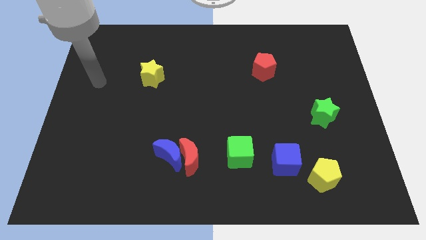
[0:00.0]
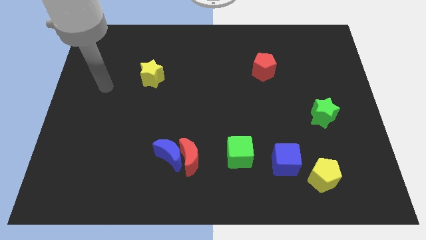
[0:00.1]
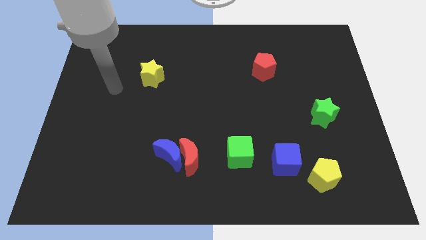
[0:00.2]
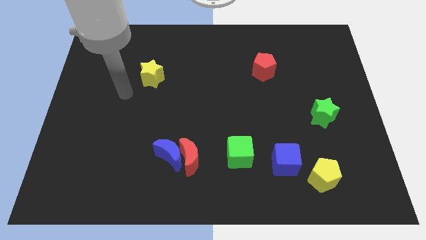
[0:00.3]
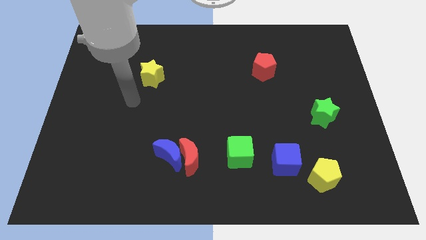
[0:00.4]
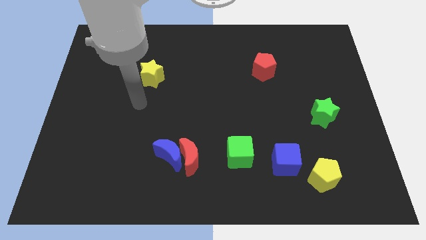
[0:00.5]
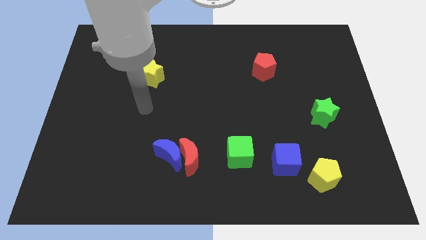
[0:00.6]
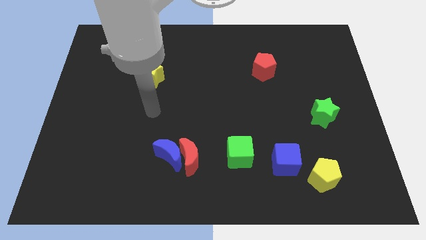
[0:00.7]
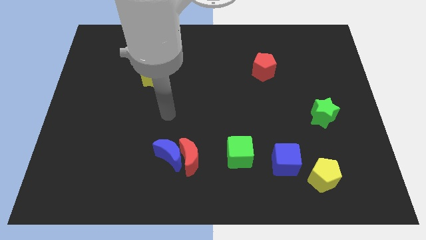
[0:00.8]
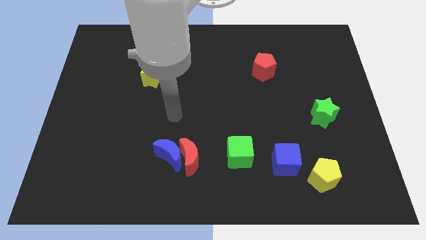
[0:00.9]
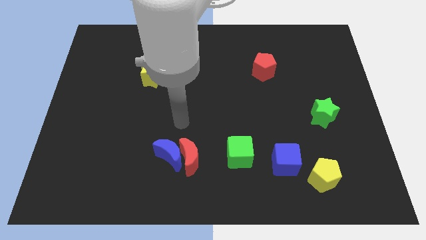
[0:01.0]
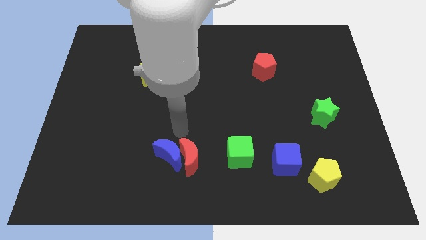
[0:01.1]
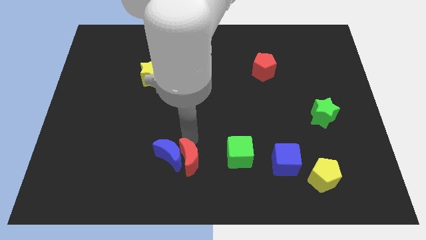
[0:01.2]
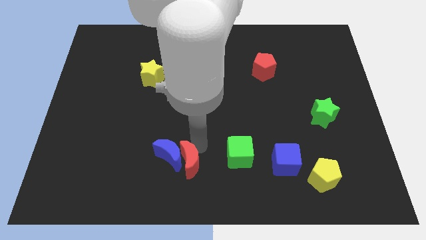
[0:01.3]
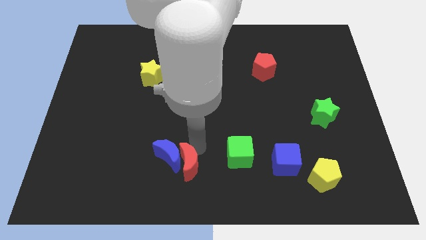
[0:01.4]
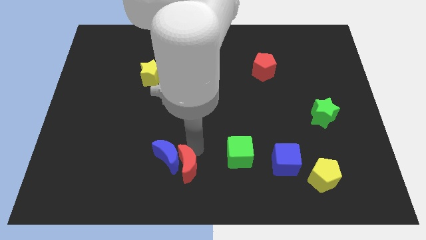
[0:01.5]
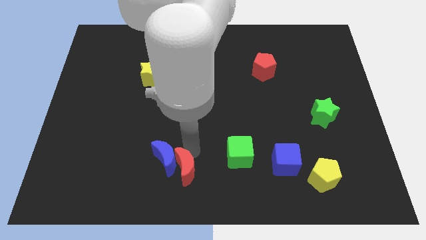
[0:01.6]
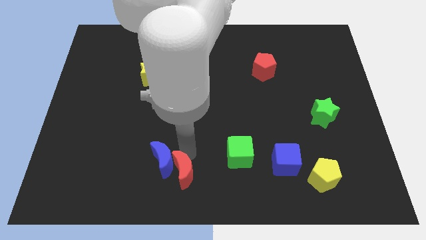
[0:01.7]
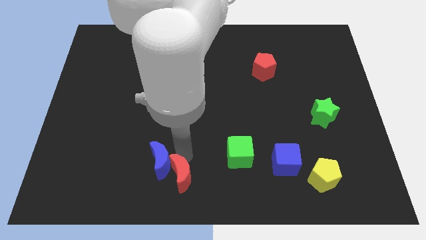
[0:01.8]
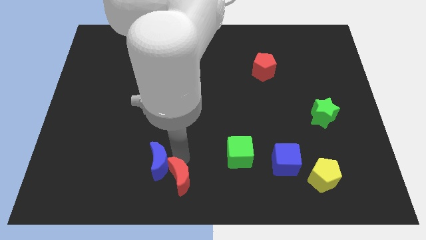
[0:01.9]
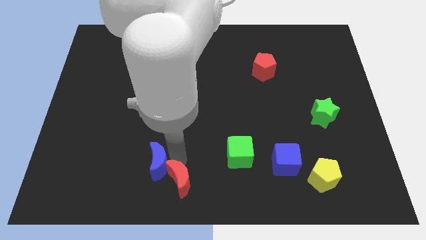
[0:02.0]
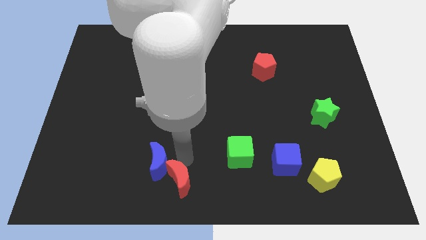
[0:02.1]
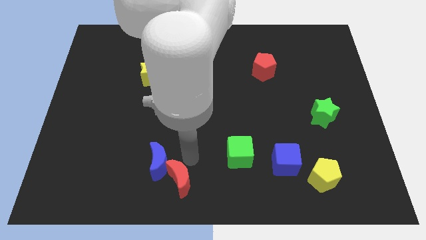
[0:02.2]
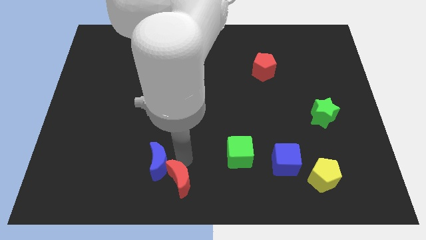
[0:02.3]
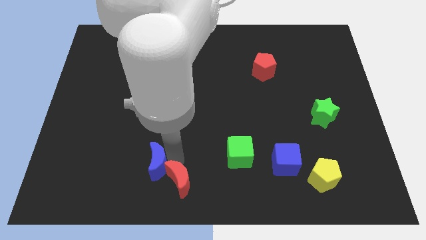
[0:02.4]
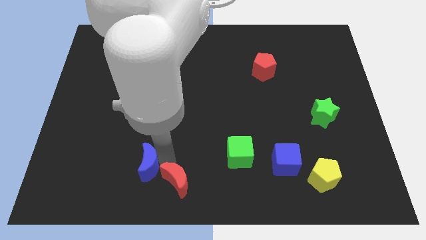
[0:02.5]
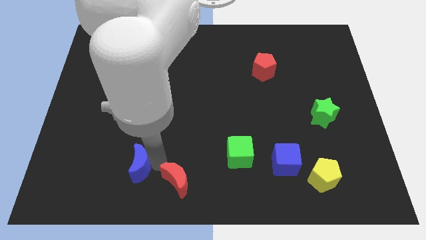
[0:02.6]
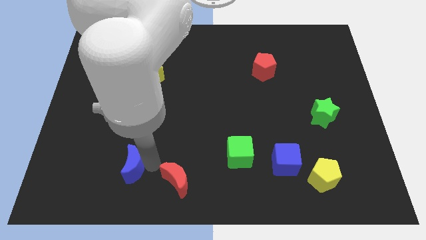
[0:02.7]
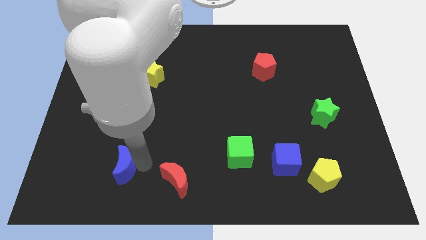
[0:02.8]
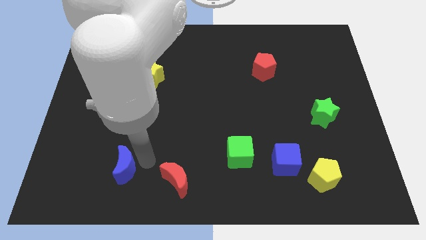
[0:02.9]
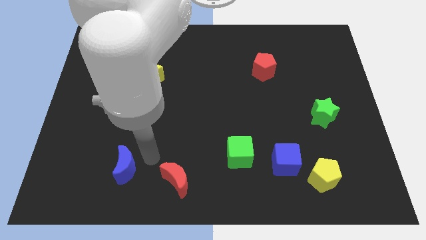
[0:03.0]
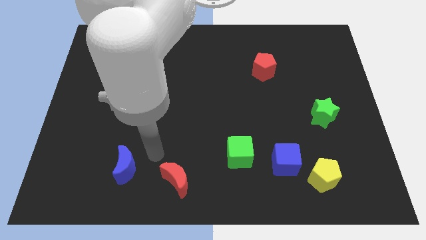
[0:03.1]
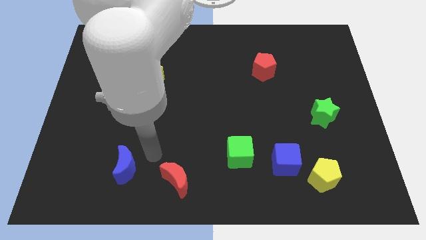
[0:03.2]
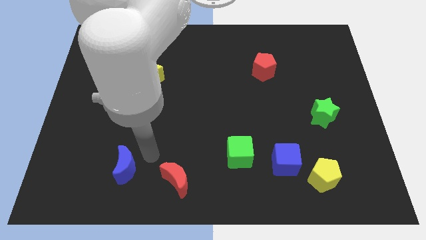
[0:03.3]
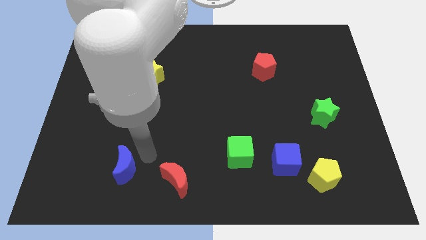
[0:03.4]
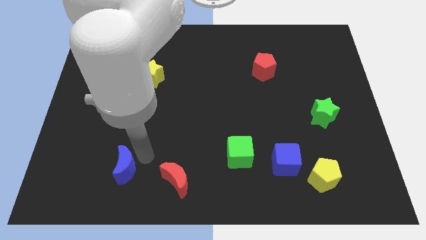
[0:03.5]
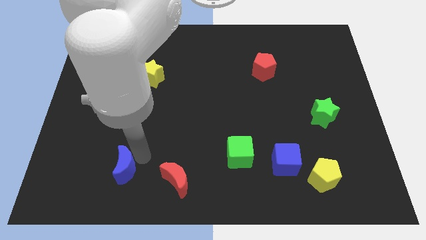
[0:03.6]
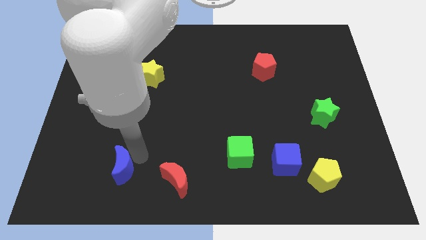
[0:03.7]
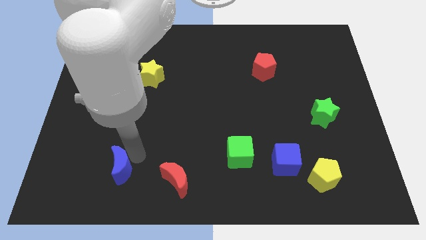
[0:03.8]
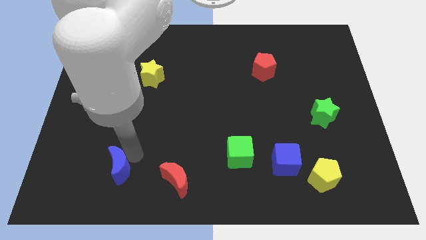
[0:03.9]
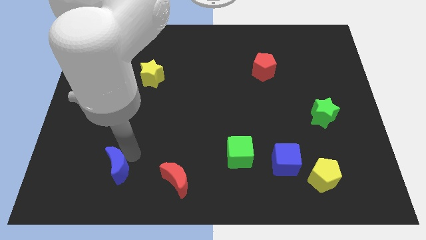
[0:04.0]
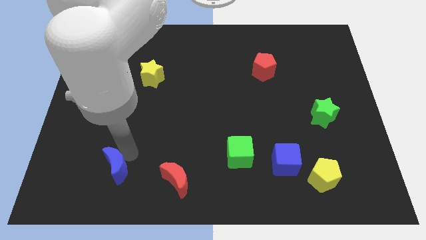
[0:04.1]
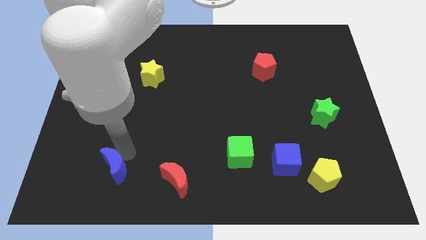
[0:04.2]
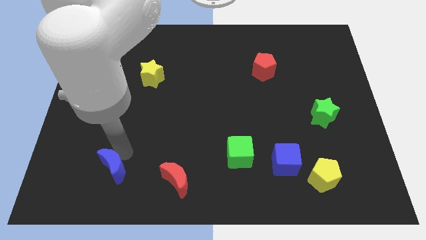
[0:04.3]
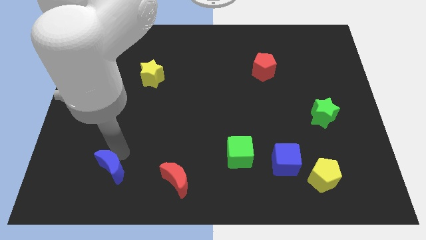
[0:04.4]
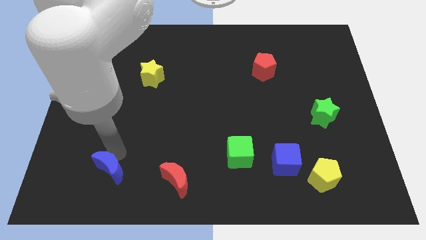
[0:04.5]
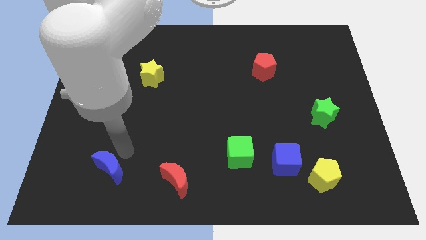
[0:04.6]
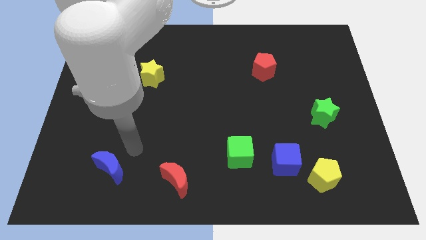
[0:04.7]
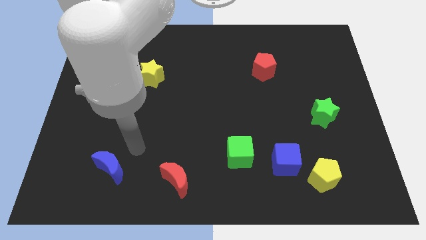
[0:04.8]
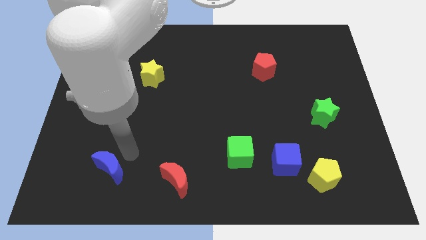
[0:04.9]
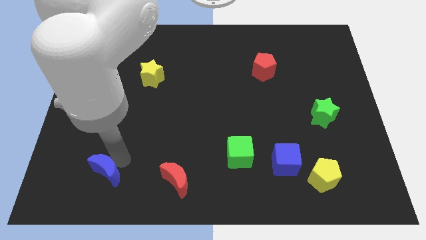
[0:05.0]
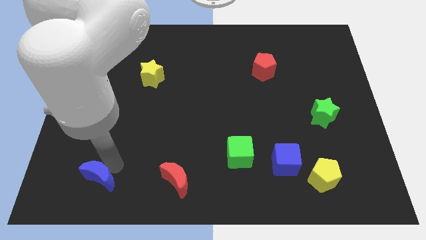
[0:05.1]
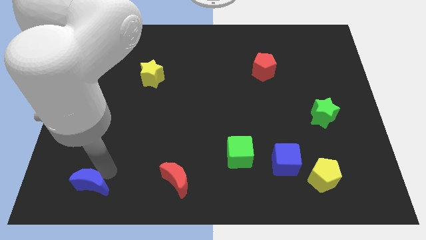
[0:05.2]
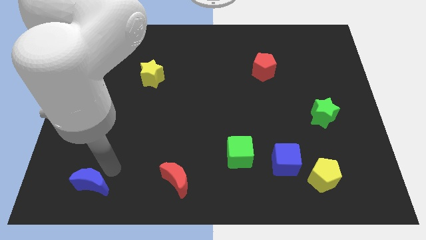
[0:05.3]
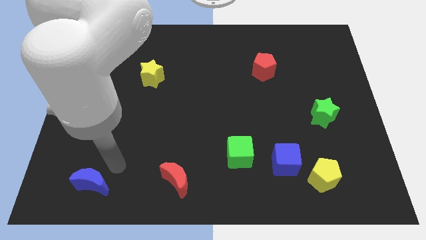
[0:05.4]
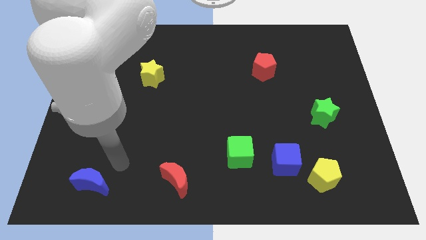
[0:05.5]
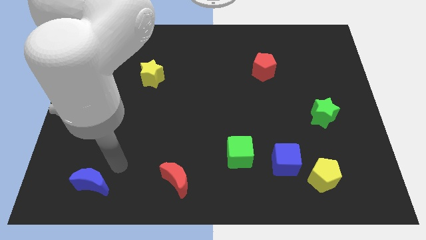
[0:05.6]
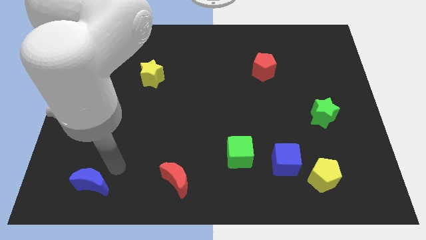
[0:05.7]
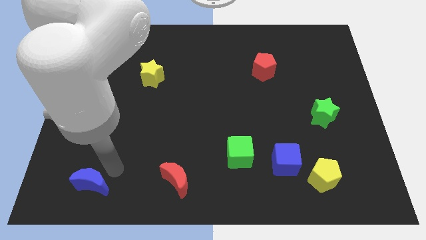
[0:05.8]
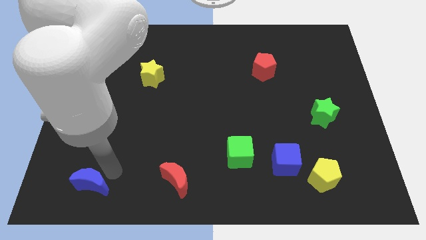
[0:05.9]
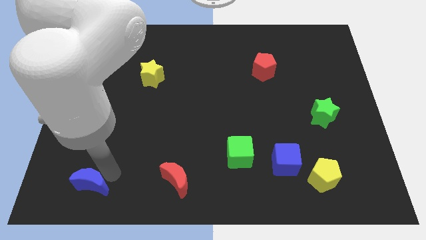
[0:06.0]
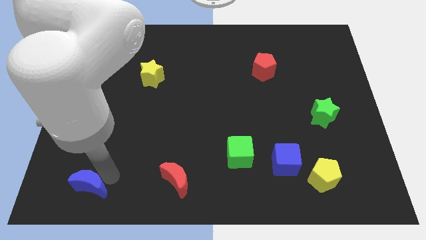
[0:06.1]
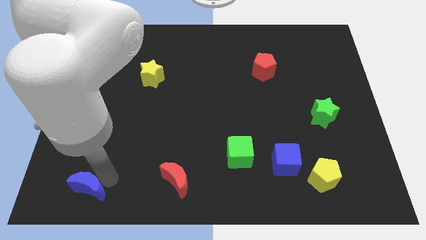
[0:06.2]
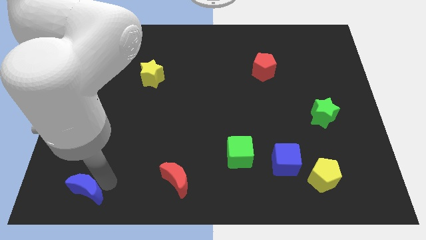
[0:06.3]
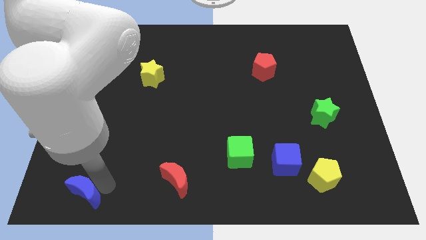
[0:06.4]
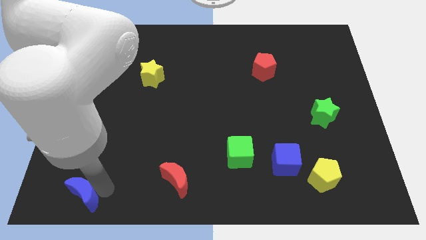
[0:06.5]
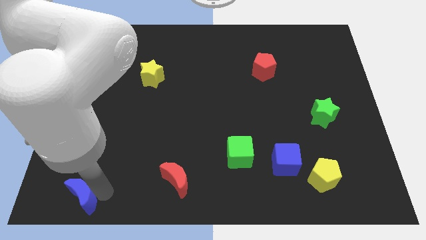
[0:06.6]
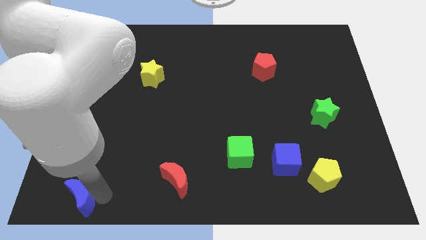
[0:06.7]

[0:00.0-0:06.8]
push the blue moon to the bottom left corner

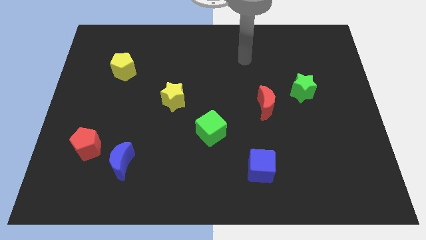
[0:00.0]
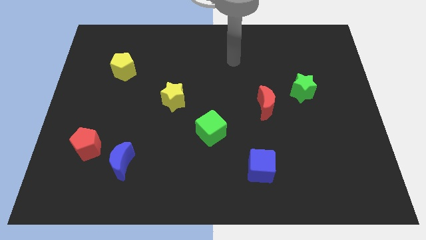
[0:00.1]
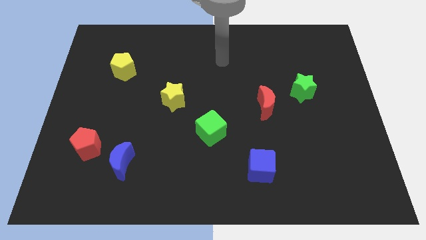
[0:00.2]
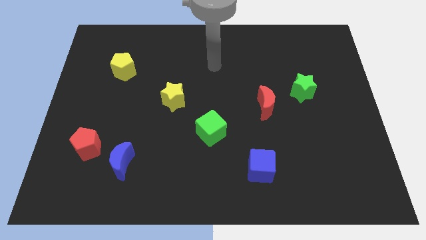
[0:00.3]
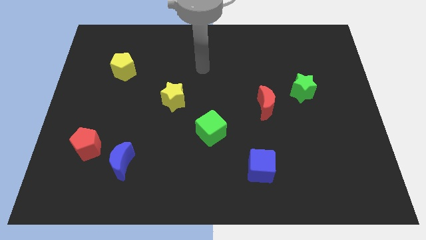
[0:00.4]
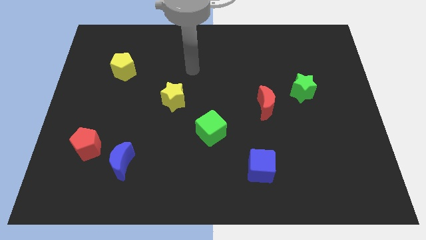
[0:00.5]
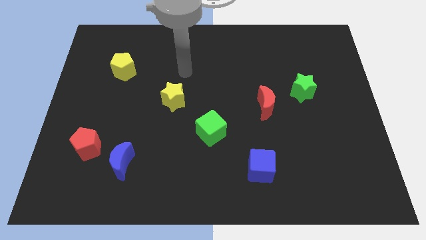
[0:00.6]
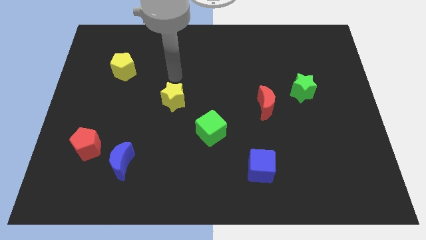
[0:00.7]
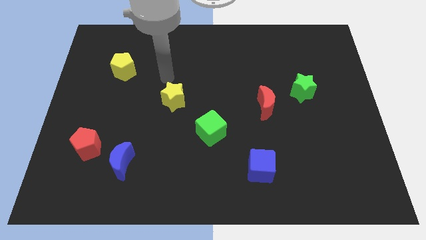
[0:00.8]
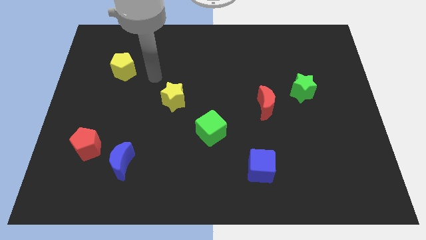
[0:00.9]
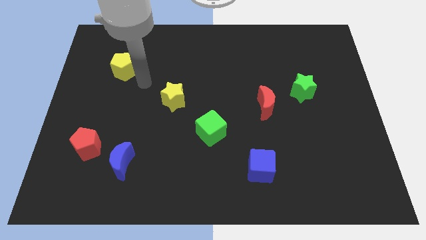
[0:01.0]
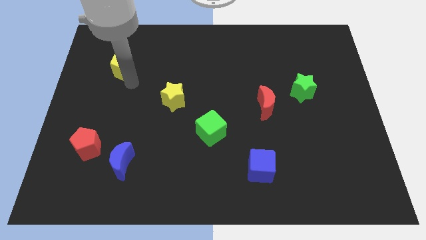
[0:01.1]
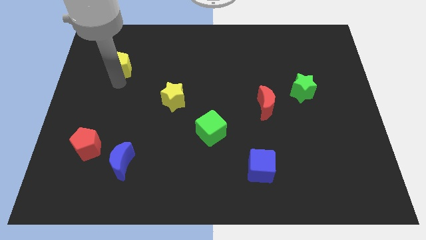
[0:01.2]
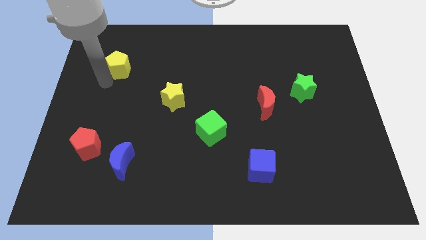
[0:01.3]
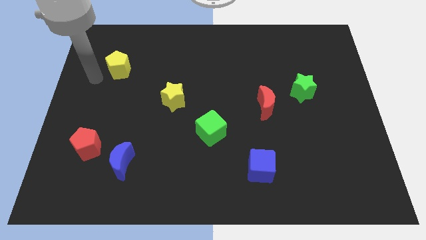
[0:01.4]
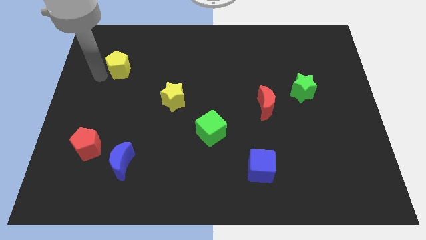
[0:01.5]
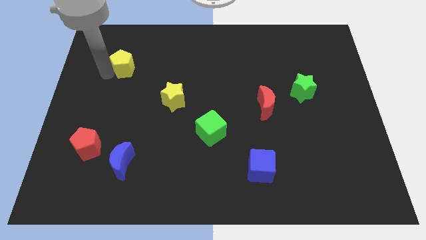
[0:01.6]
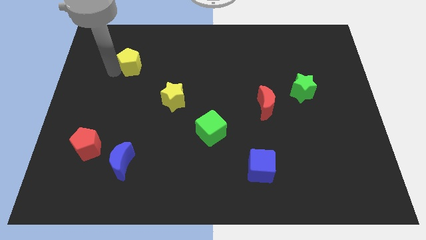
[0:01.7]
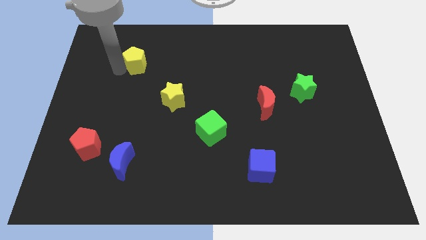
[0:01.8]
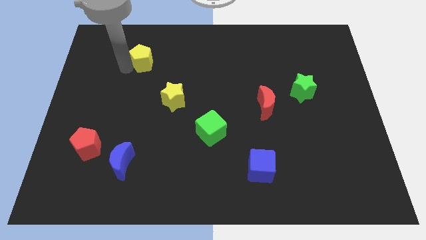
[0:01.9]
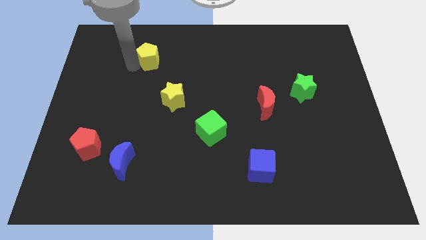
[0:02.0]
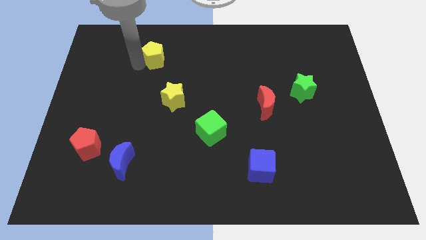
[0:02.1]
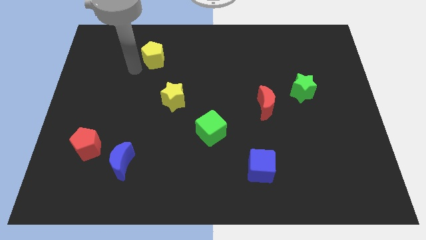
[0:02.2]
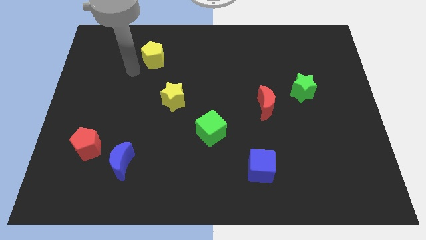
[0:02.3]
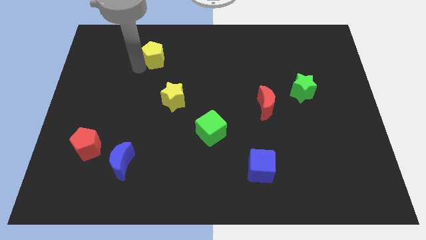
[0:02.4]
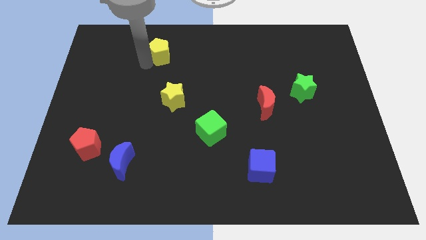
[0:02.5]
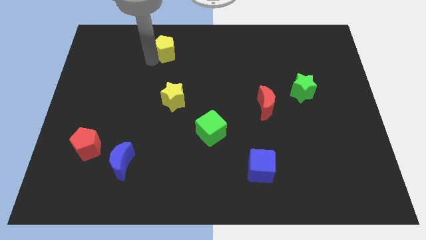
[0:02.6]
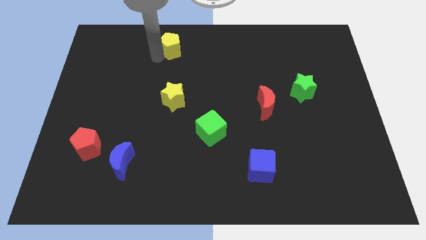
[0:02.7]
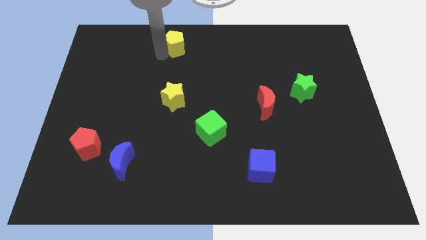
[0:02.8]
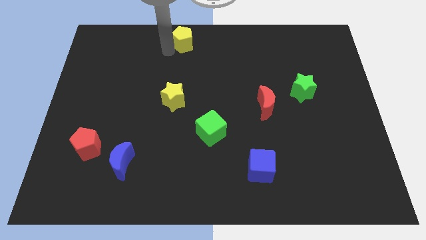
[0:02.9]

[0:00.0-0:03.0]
push the yellow pentagon to the towards your base
